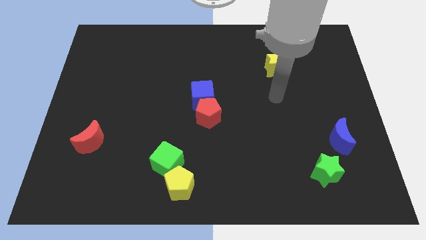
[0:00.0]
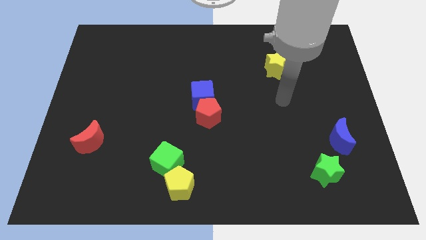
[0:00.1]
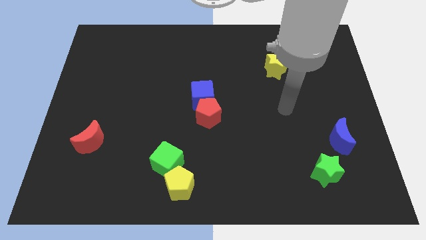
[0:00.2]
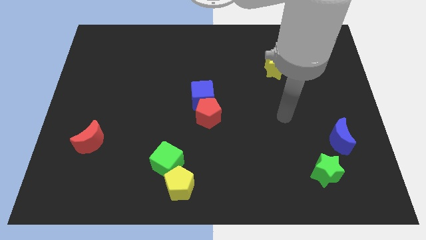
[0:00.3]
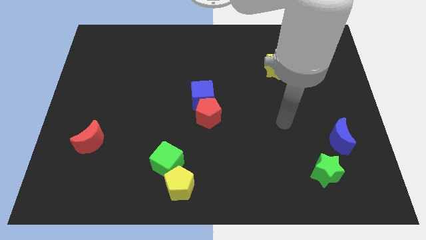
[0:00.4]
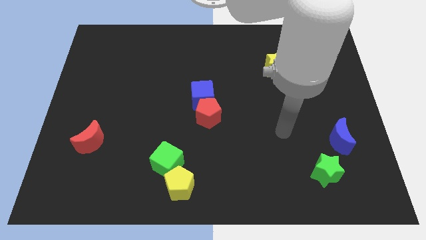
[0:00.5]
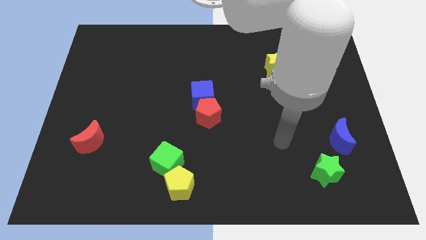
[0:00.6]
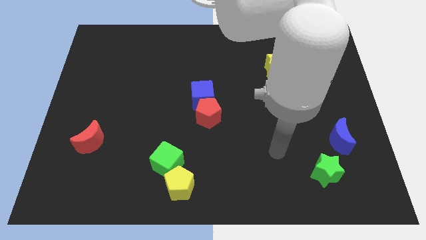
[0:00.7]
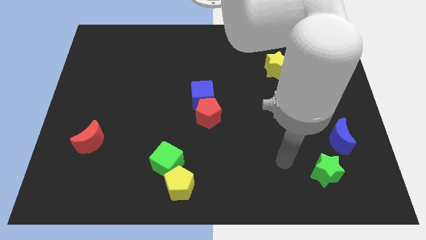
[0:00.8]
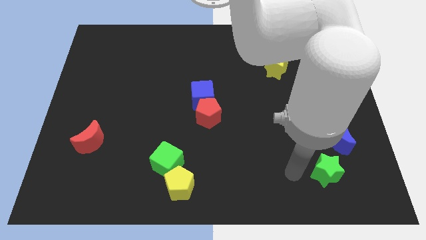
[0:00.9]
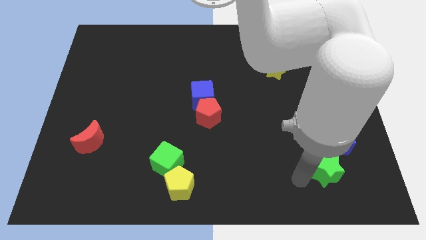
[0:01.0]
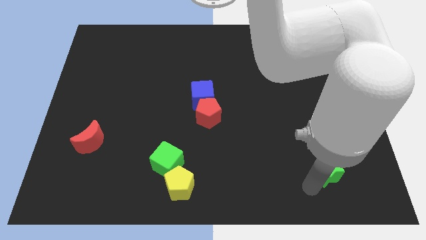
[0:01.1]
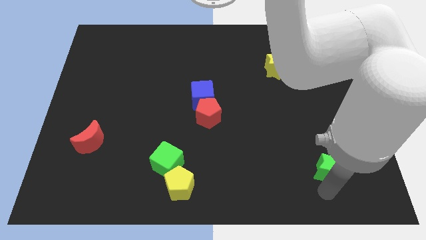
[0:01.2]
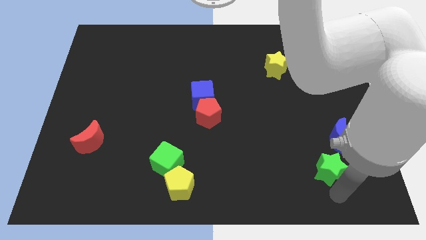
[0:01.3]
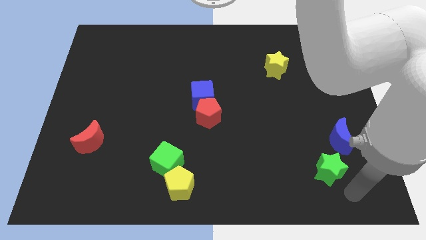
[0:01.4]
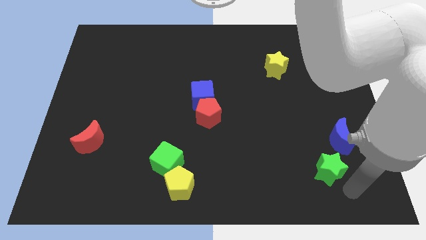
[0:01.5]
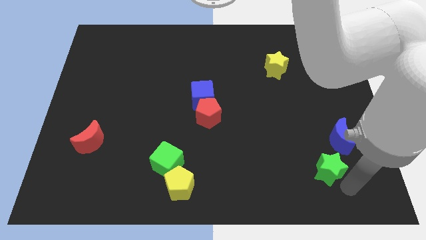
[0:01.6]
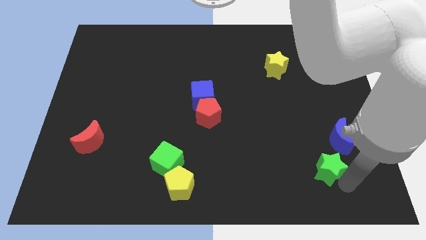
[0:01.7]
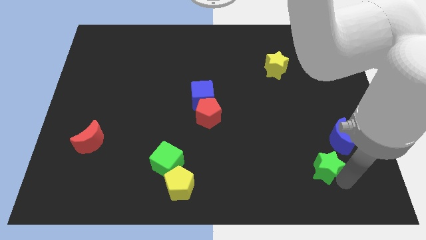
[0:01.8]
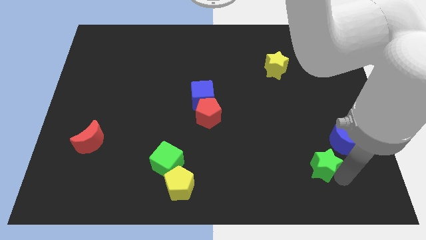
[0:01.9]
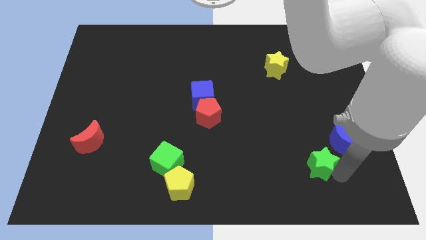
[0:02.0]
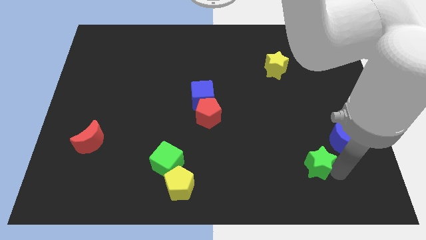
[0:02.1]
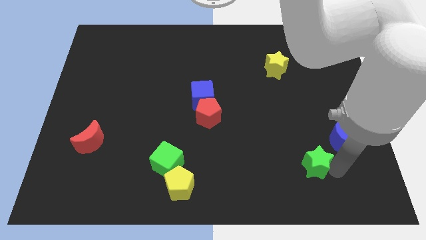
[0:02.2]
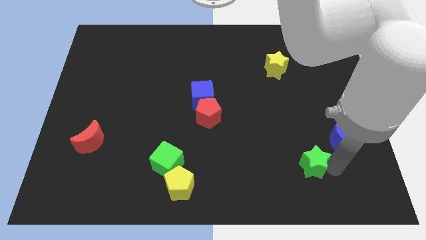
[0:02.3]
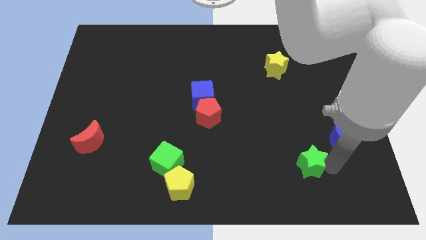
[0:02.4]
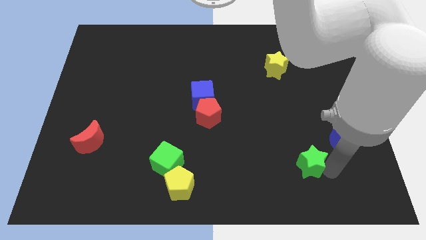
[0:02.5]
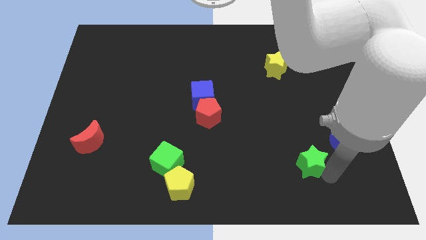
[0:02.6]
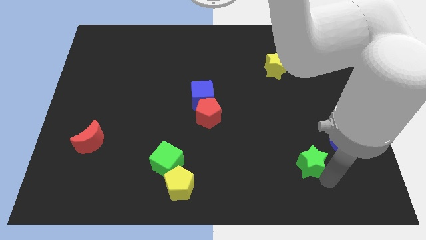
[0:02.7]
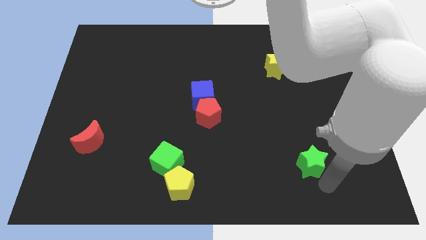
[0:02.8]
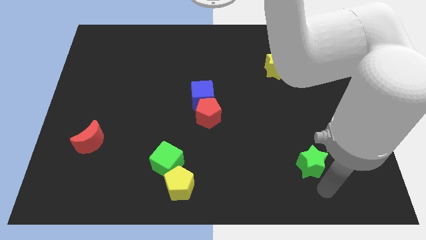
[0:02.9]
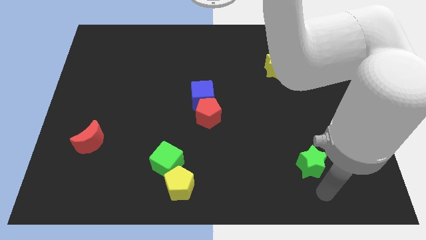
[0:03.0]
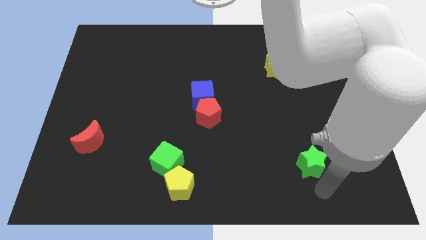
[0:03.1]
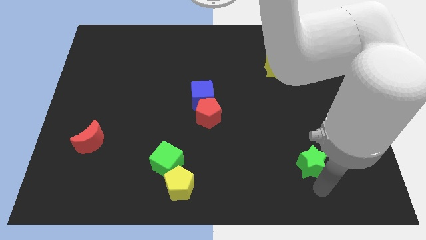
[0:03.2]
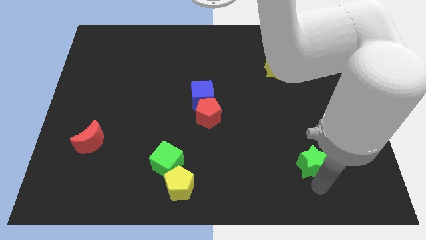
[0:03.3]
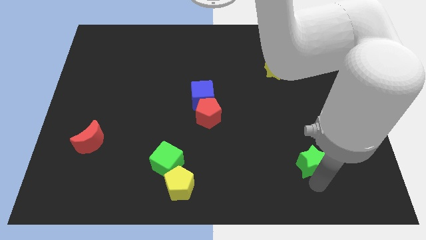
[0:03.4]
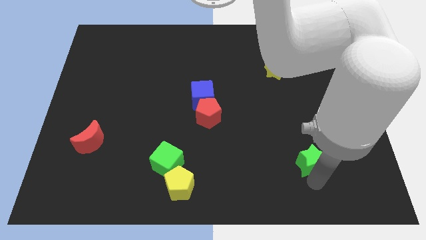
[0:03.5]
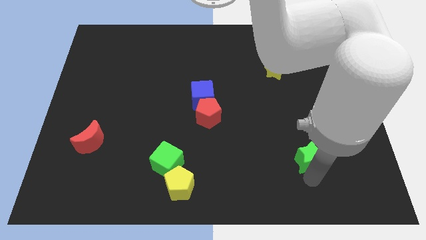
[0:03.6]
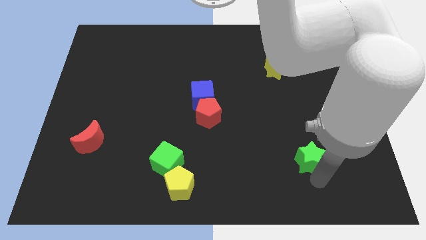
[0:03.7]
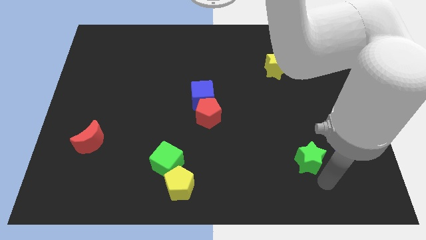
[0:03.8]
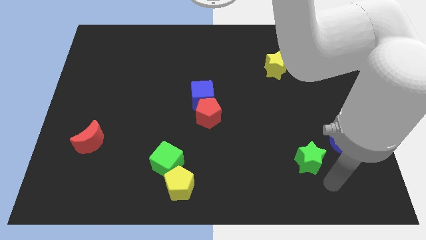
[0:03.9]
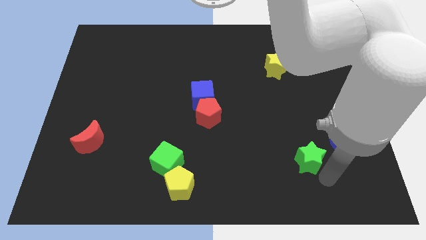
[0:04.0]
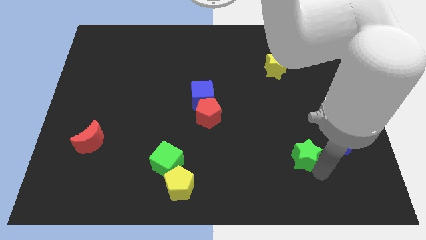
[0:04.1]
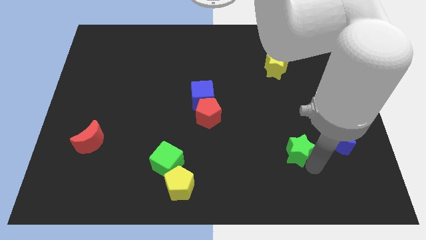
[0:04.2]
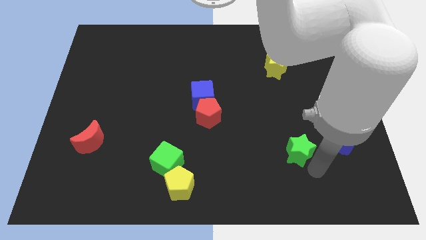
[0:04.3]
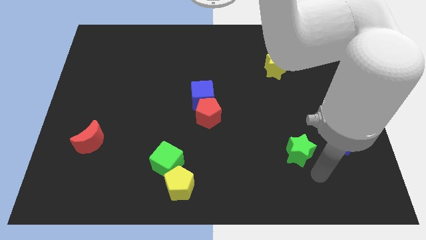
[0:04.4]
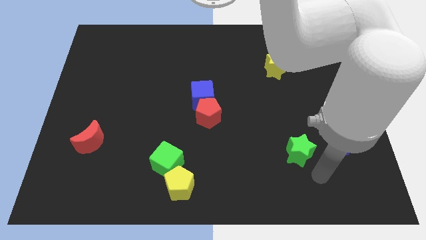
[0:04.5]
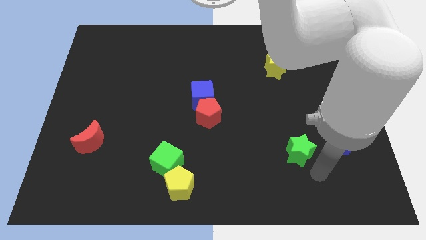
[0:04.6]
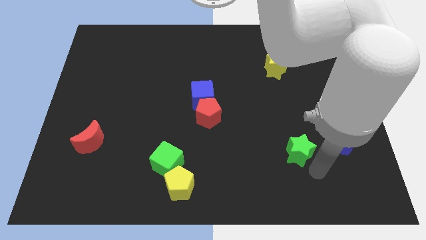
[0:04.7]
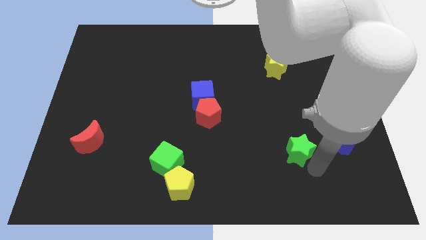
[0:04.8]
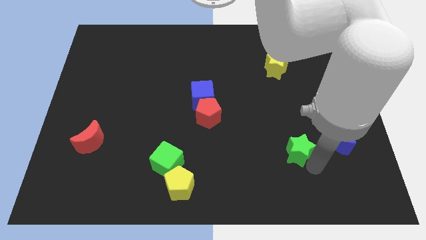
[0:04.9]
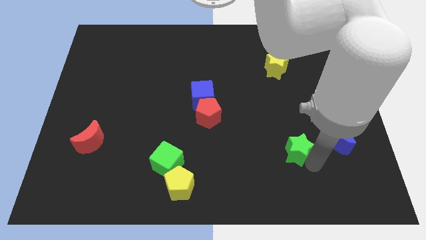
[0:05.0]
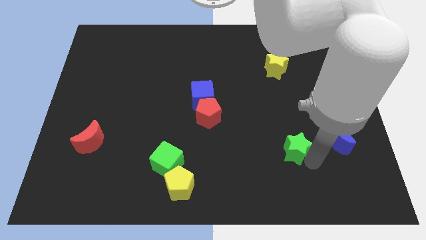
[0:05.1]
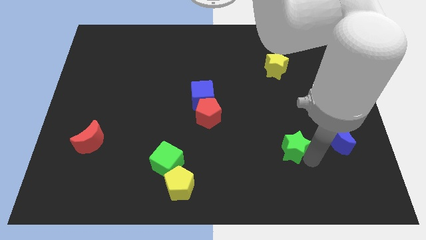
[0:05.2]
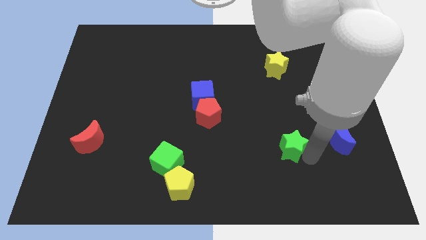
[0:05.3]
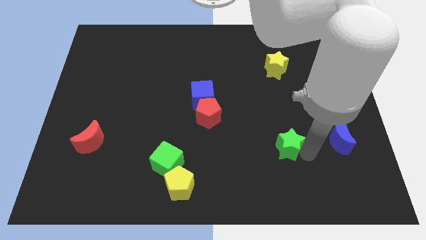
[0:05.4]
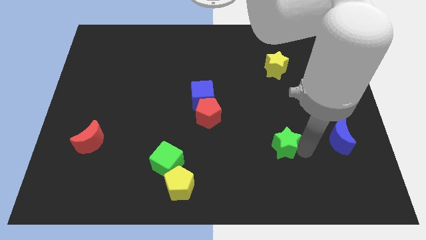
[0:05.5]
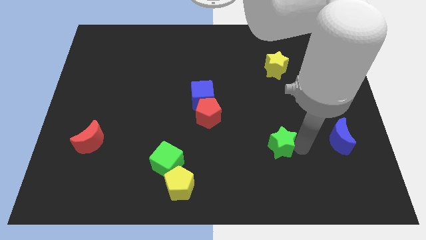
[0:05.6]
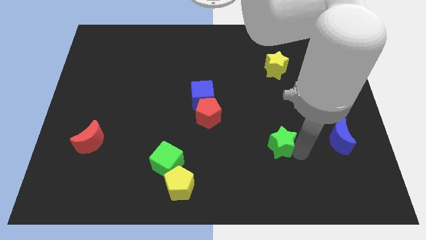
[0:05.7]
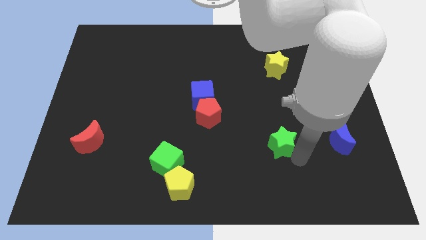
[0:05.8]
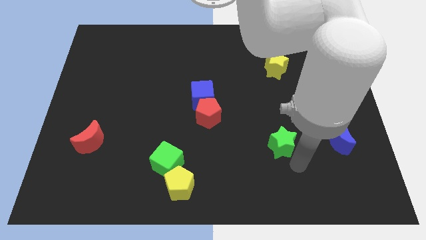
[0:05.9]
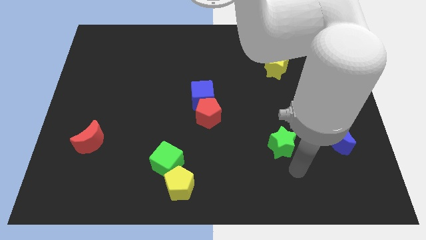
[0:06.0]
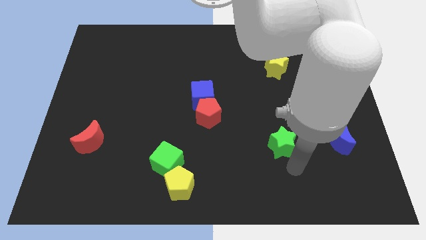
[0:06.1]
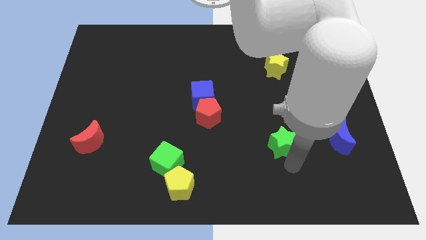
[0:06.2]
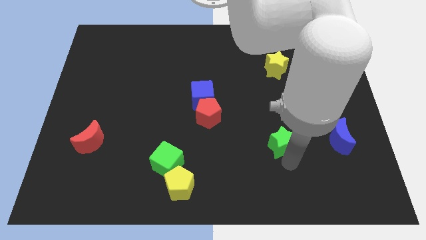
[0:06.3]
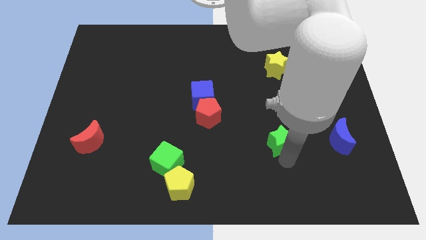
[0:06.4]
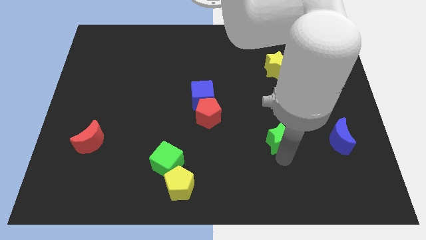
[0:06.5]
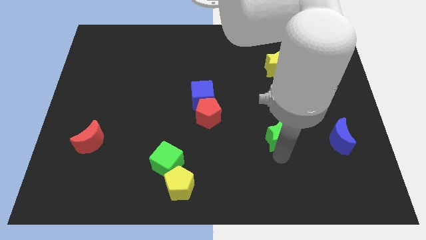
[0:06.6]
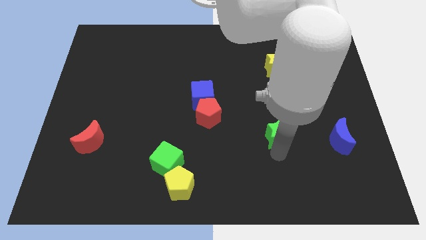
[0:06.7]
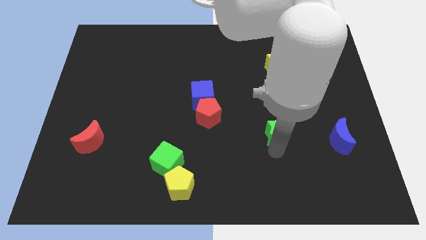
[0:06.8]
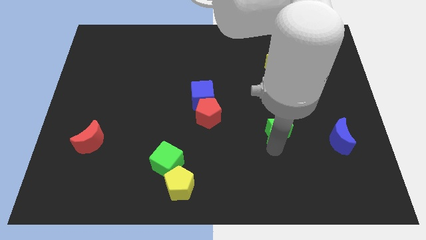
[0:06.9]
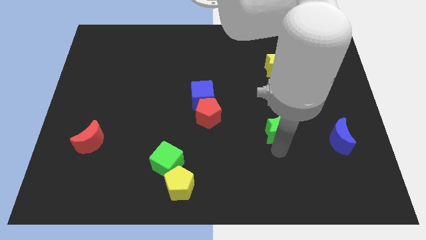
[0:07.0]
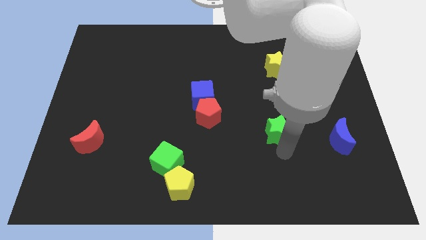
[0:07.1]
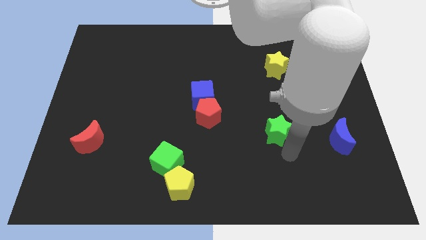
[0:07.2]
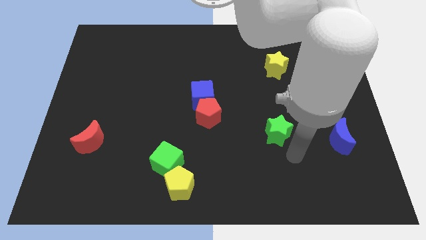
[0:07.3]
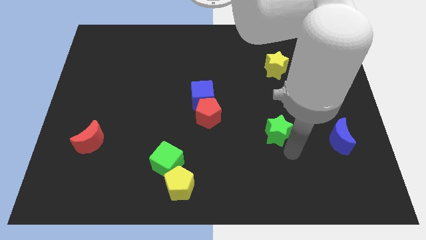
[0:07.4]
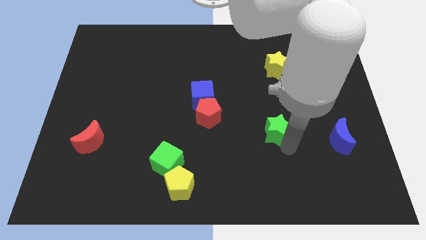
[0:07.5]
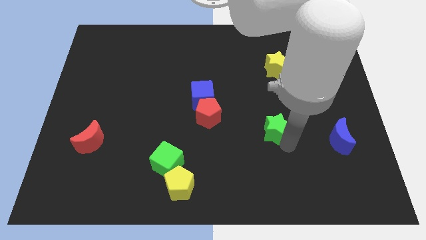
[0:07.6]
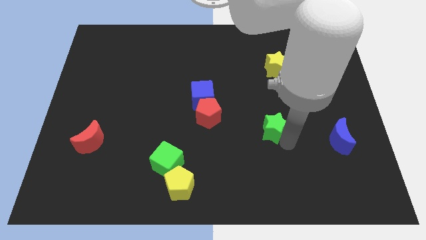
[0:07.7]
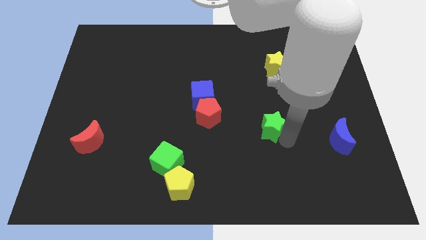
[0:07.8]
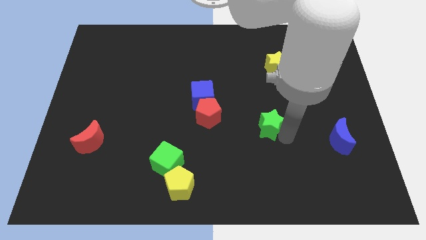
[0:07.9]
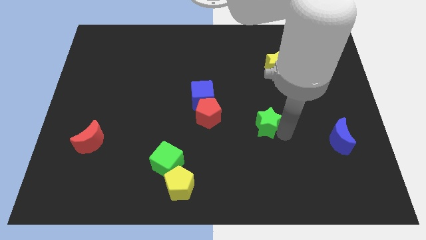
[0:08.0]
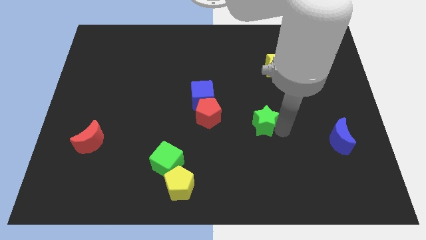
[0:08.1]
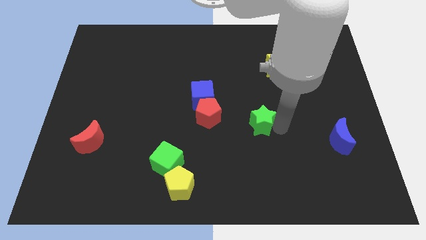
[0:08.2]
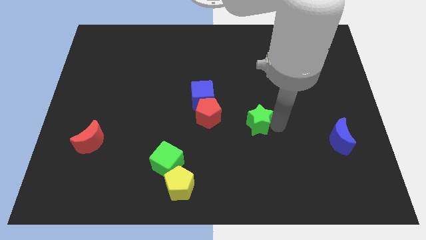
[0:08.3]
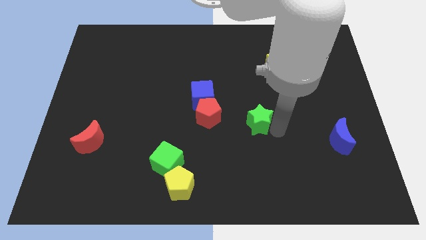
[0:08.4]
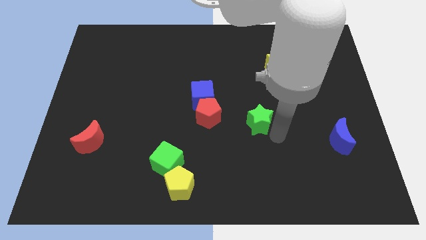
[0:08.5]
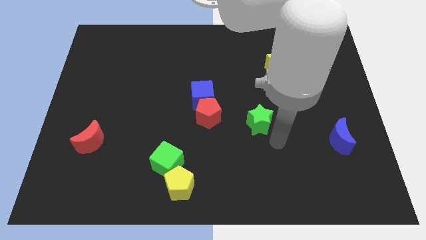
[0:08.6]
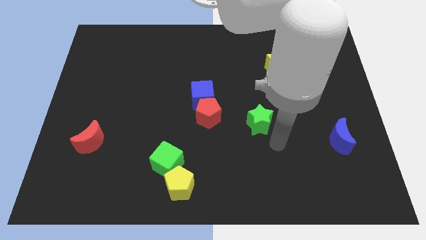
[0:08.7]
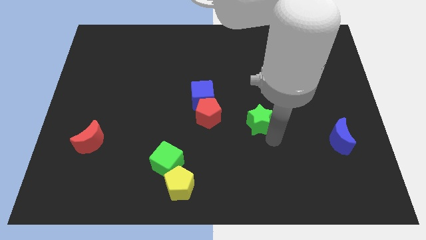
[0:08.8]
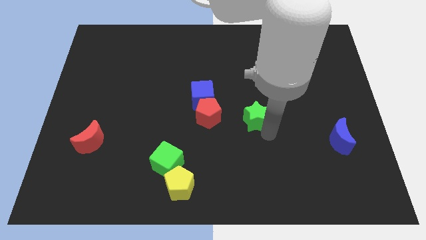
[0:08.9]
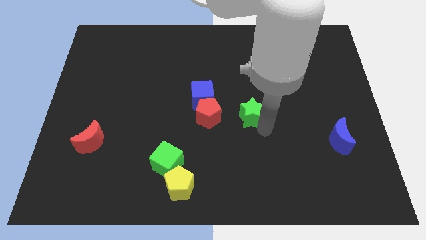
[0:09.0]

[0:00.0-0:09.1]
push the green star upwards and then to the left
